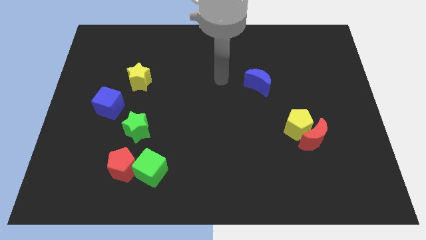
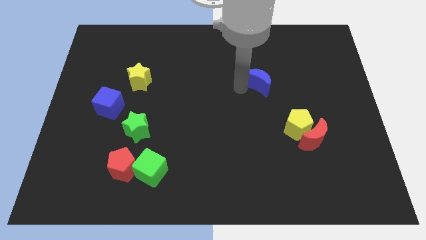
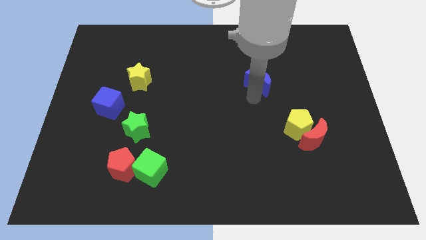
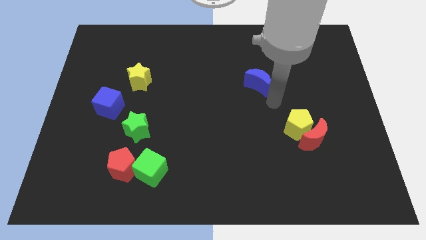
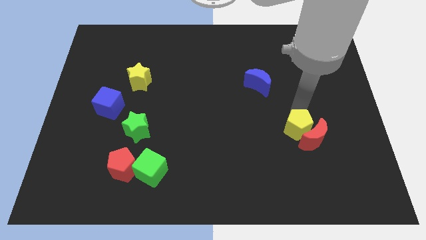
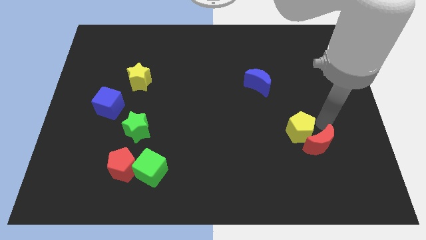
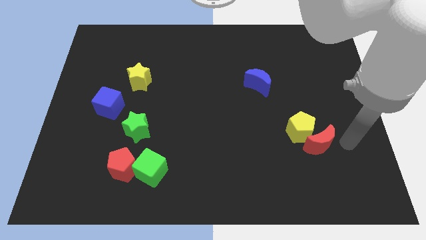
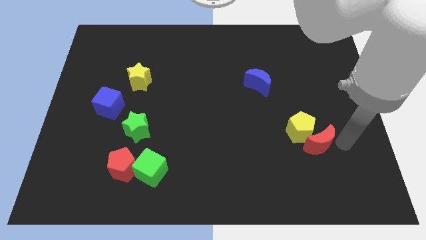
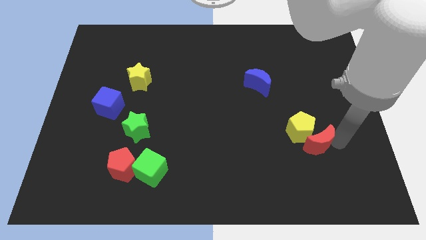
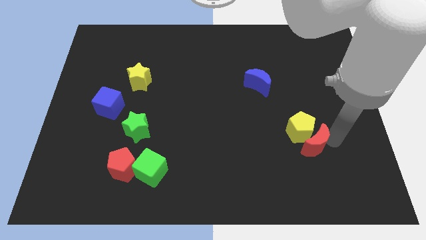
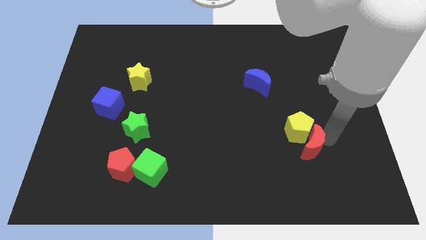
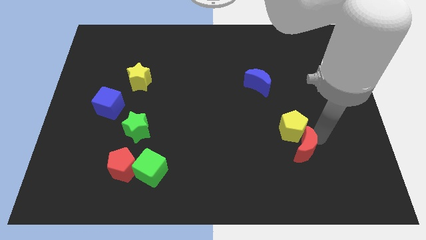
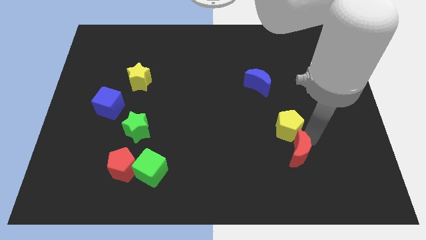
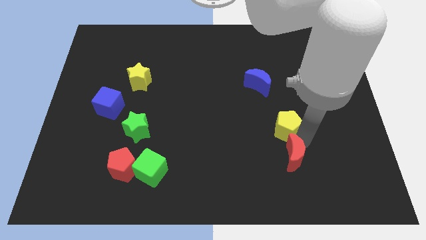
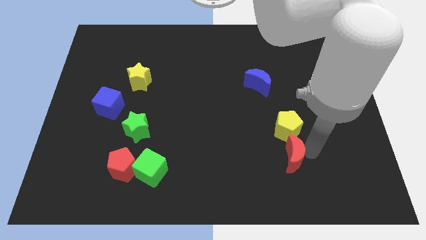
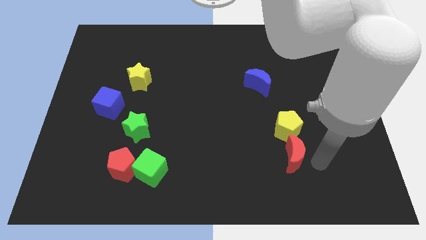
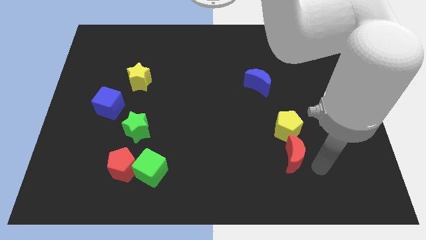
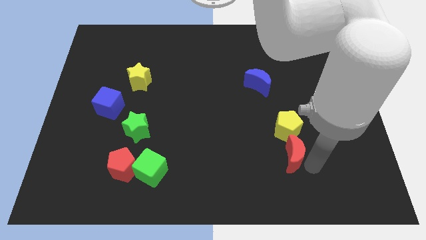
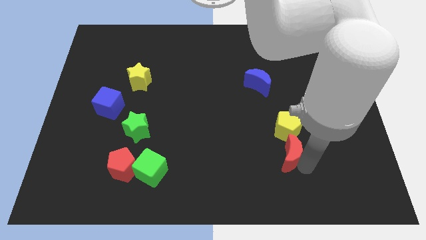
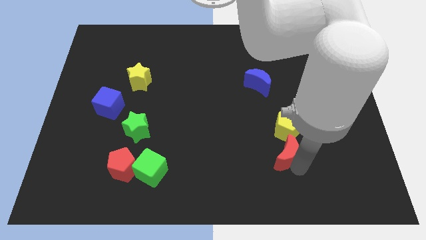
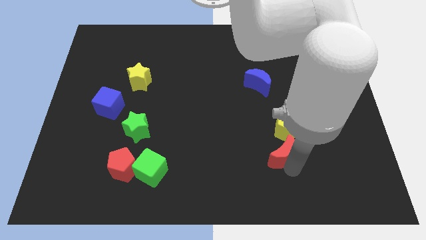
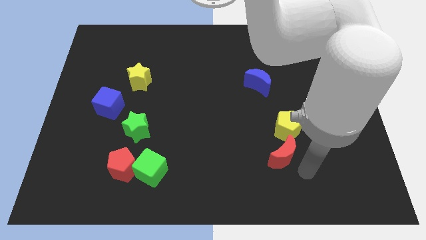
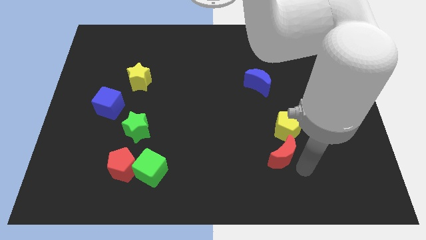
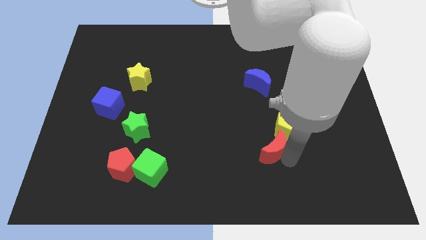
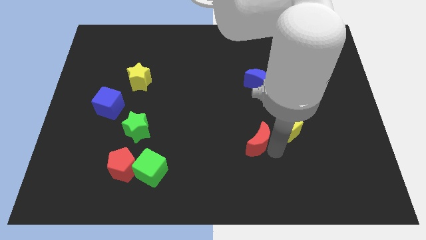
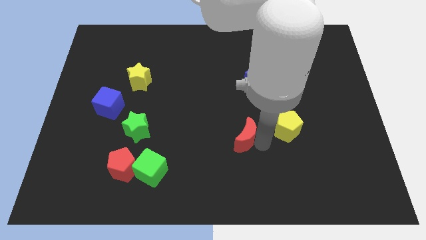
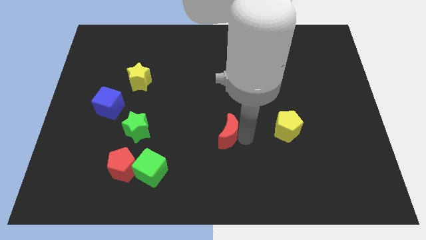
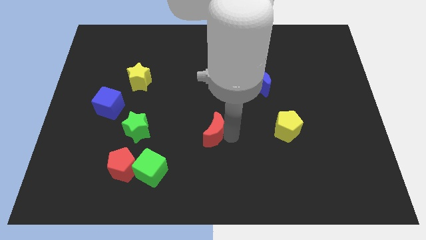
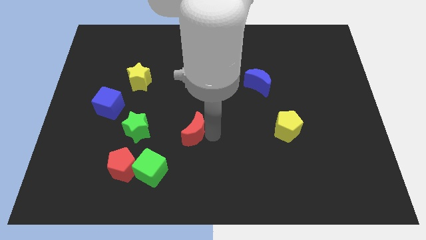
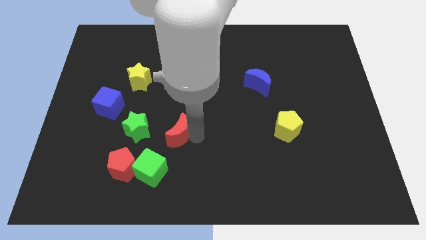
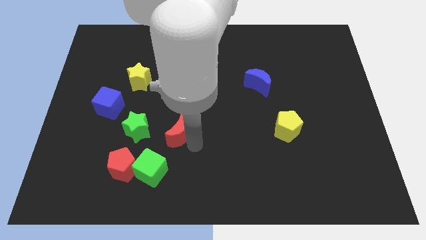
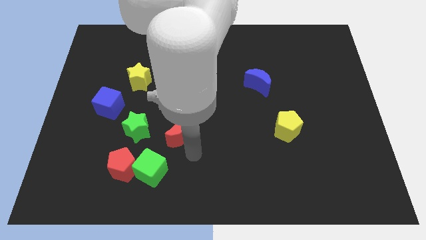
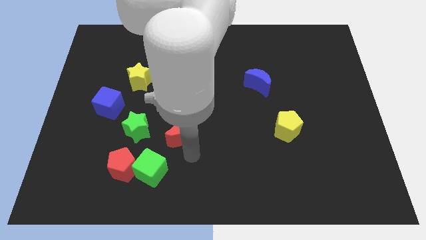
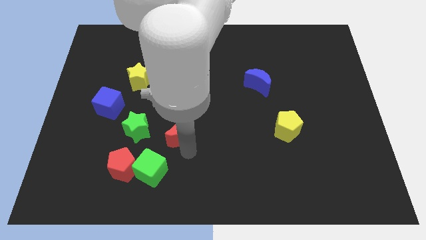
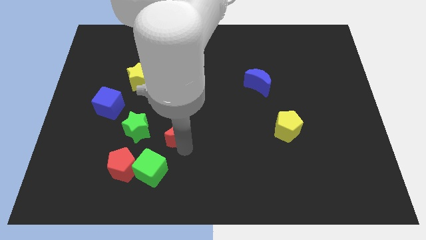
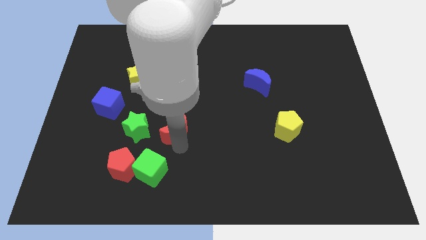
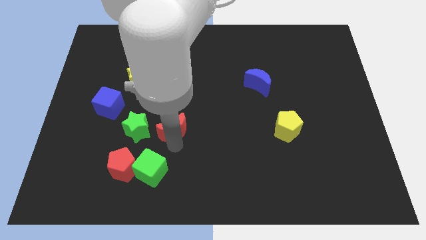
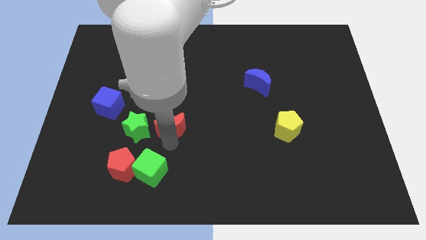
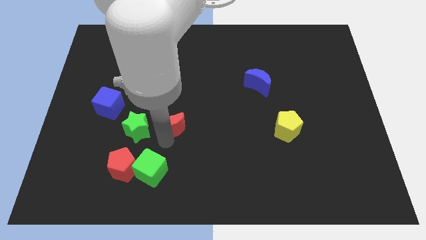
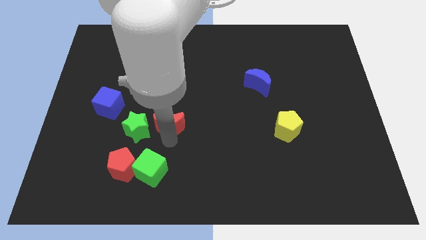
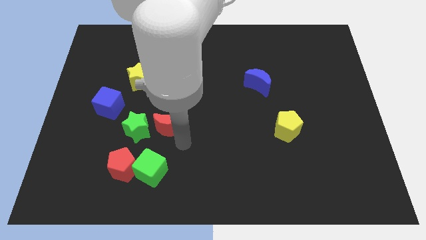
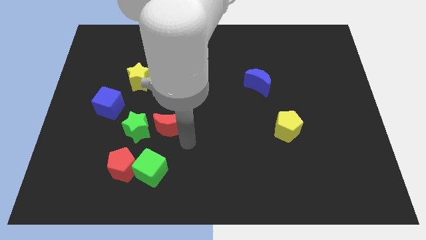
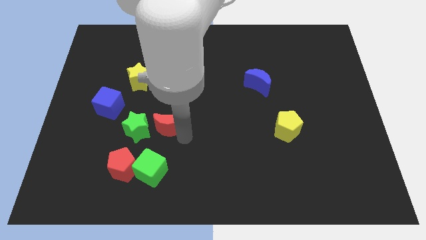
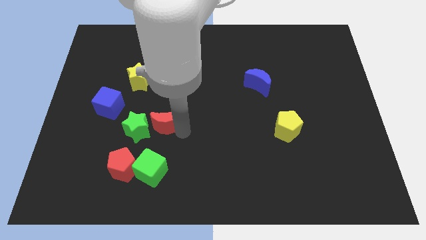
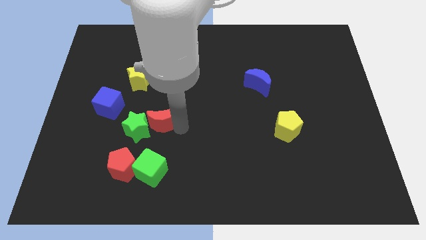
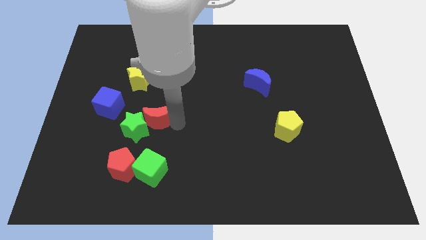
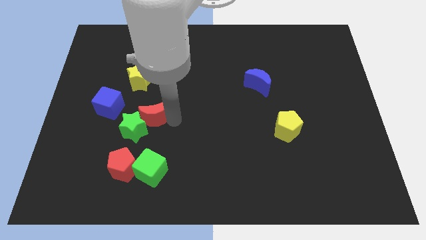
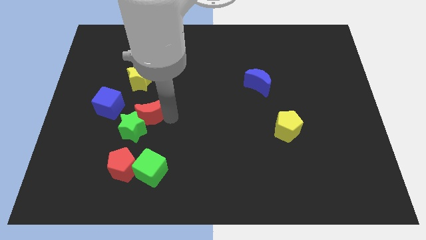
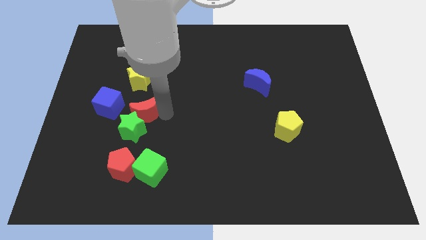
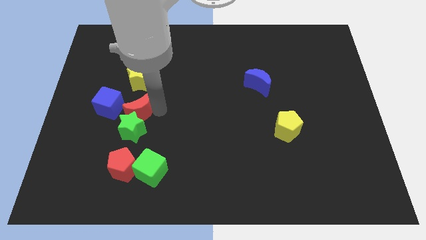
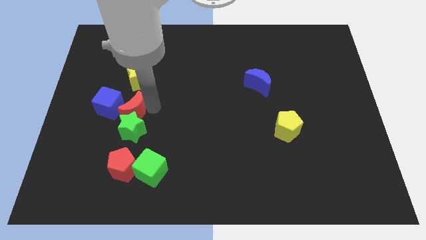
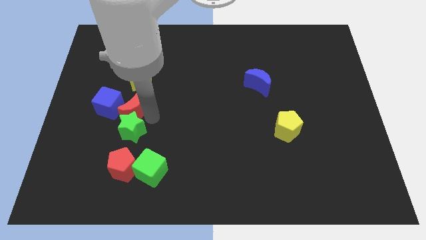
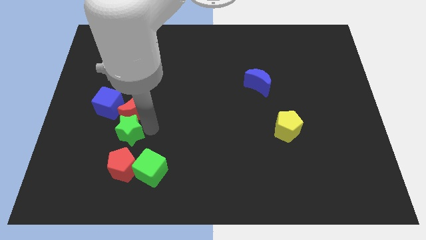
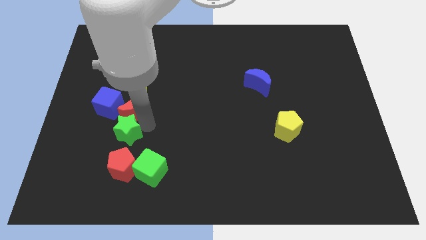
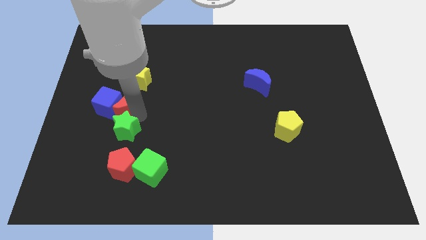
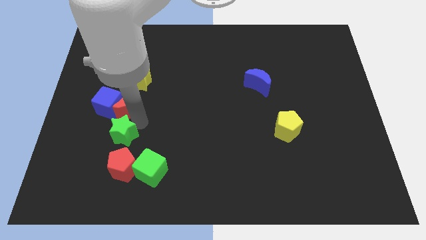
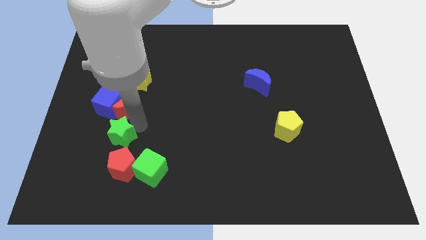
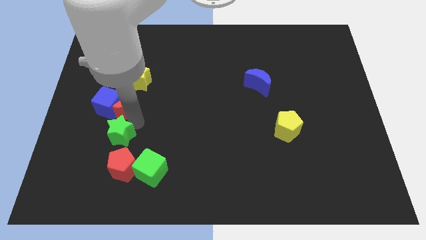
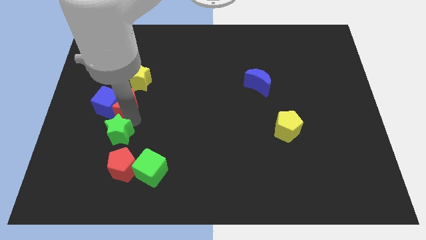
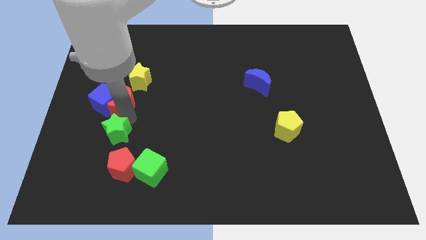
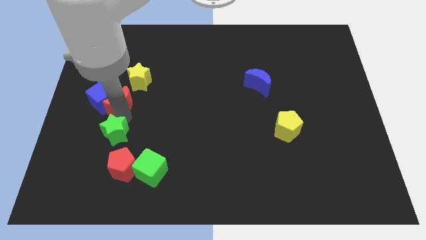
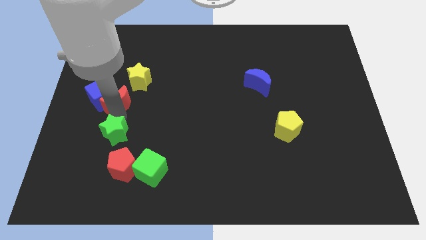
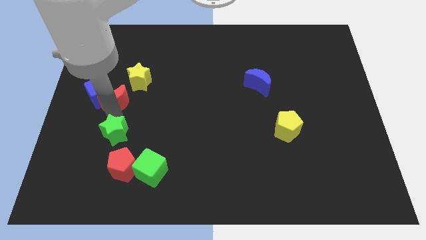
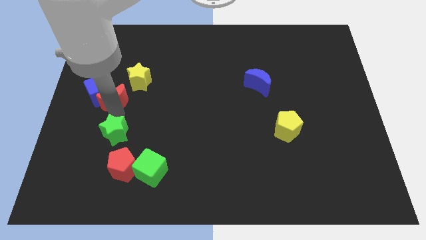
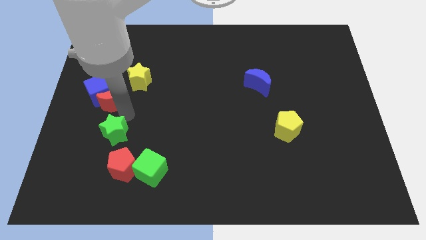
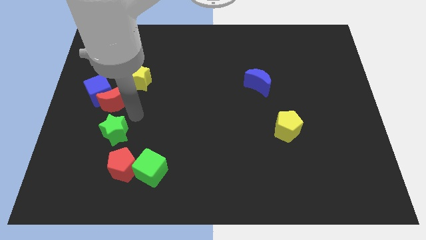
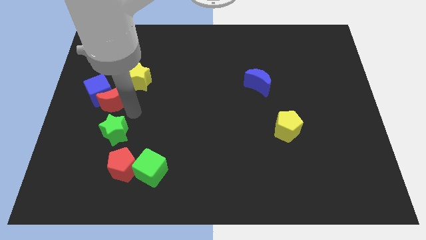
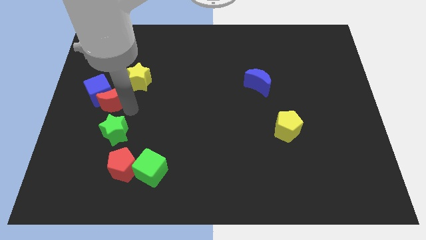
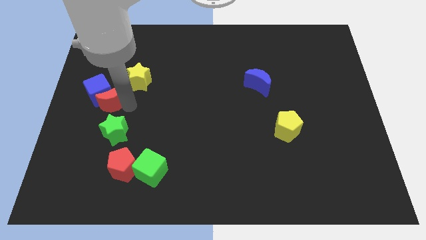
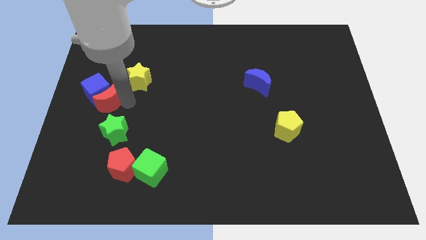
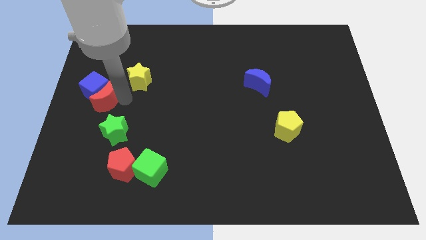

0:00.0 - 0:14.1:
slide the red moon to the left side
